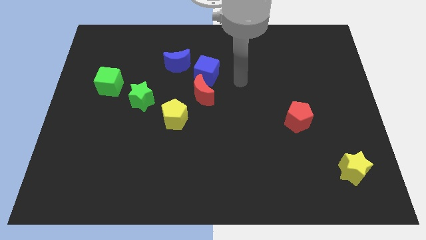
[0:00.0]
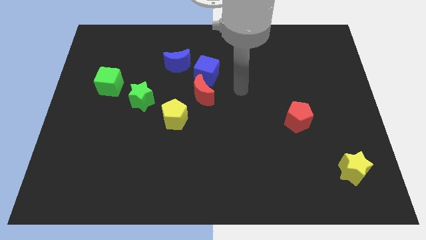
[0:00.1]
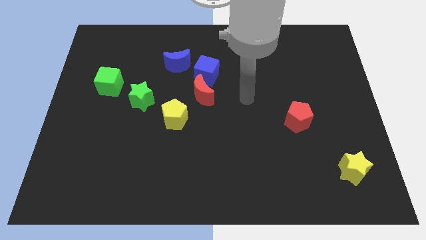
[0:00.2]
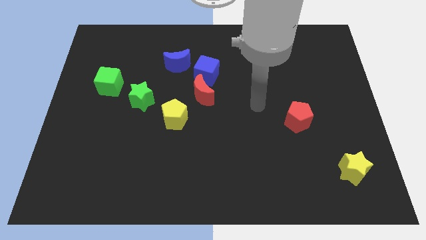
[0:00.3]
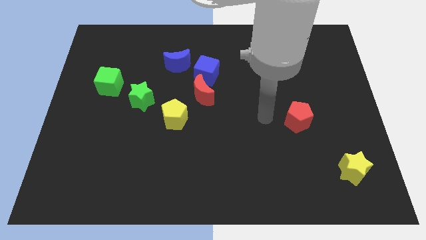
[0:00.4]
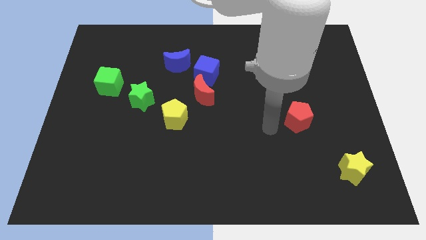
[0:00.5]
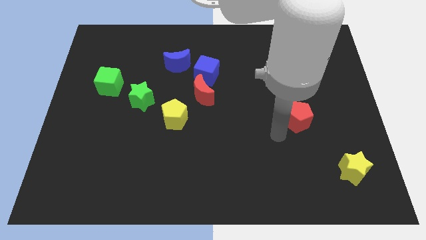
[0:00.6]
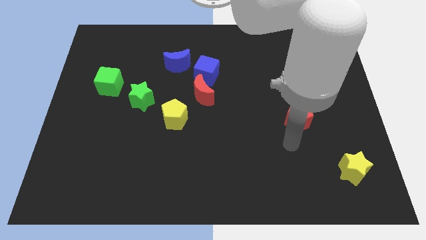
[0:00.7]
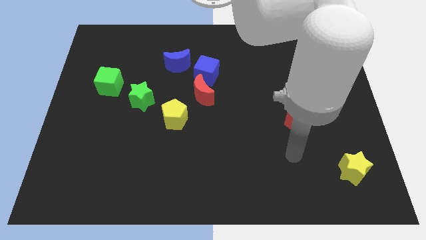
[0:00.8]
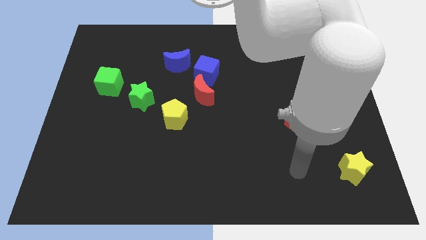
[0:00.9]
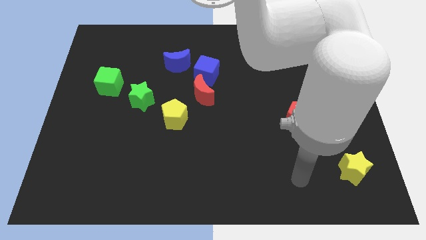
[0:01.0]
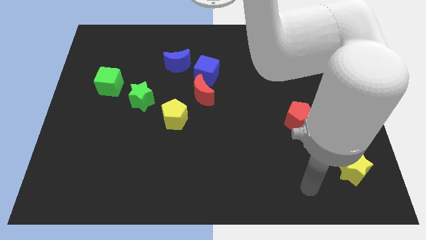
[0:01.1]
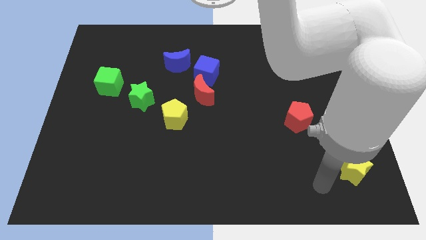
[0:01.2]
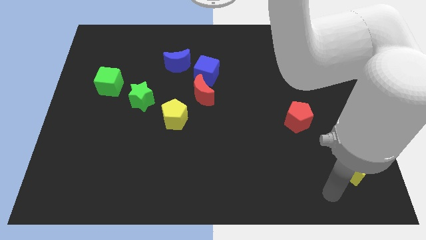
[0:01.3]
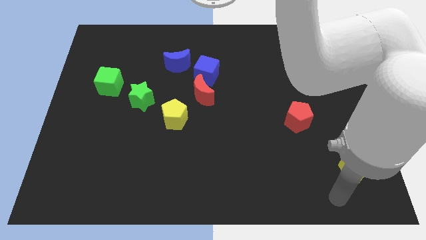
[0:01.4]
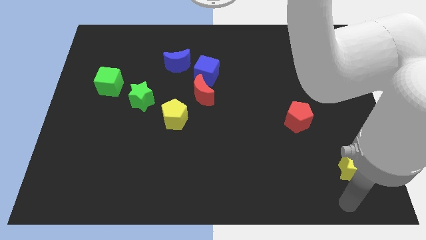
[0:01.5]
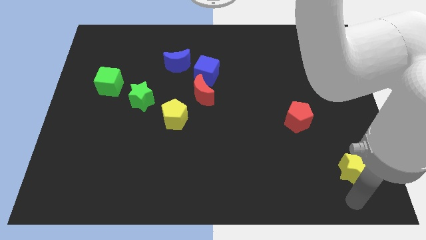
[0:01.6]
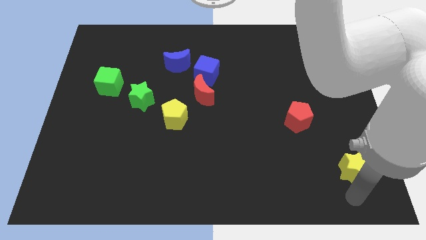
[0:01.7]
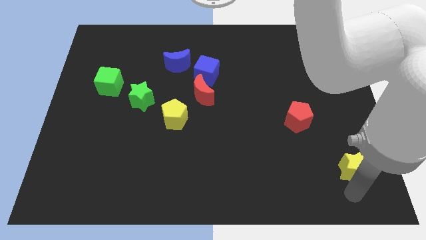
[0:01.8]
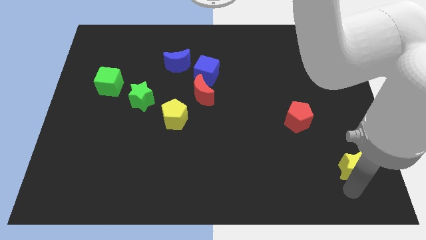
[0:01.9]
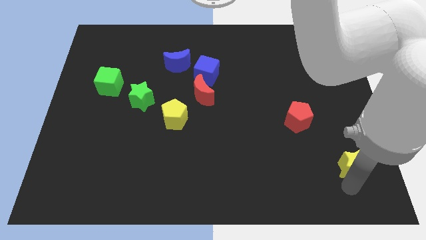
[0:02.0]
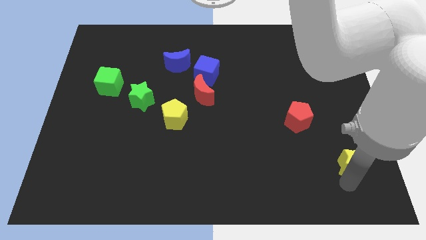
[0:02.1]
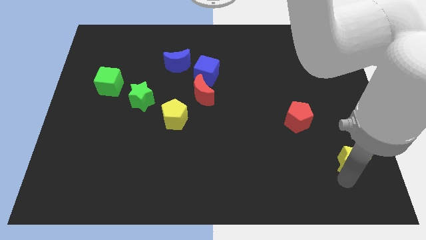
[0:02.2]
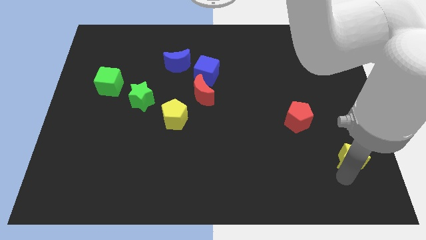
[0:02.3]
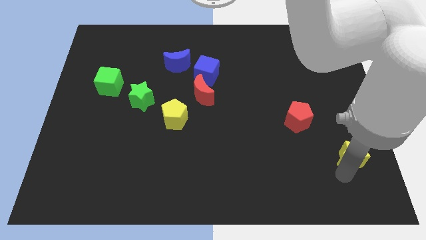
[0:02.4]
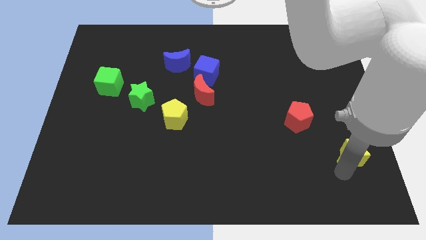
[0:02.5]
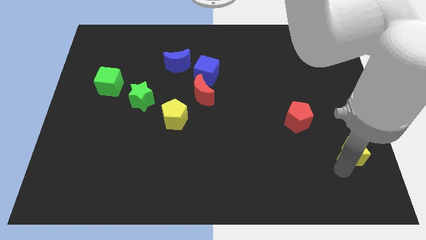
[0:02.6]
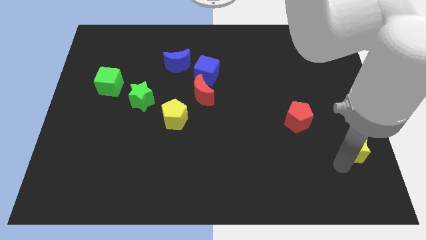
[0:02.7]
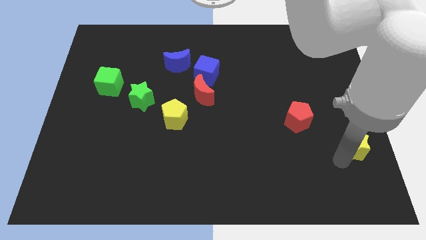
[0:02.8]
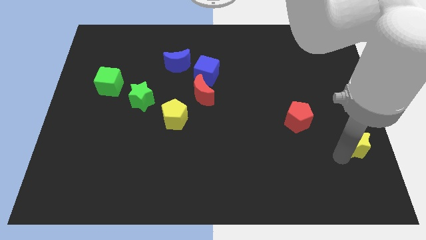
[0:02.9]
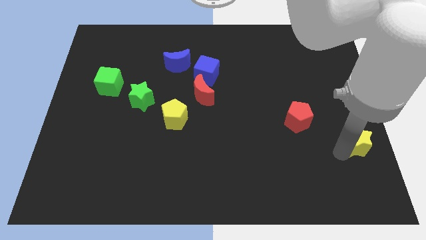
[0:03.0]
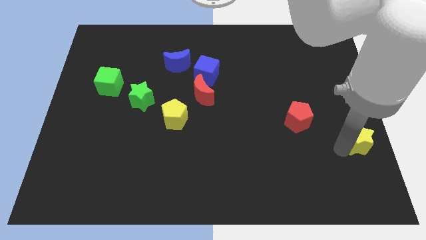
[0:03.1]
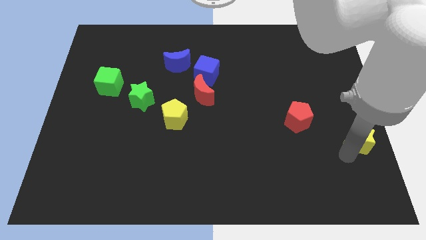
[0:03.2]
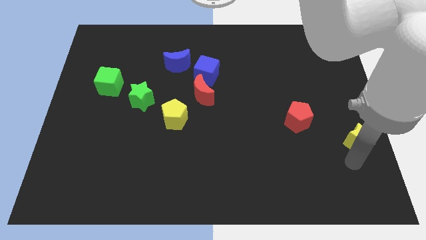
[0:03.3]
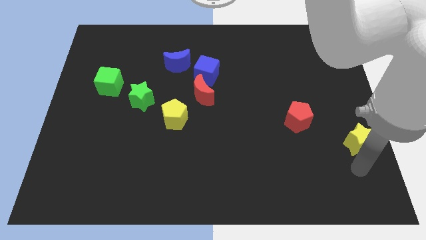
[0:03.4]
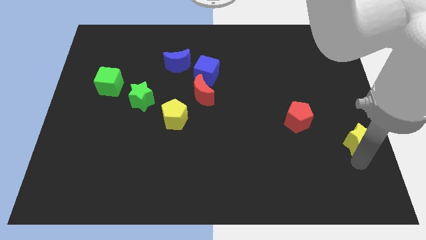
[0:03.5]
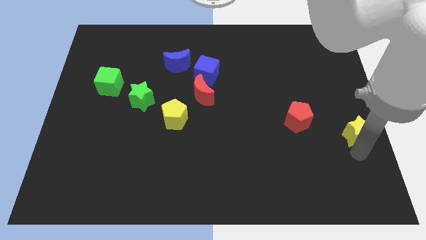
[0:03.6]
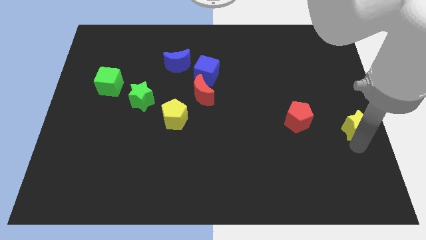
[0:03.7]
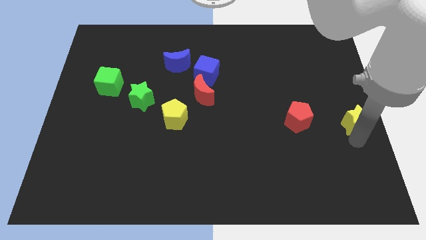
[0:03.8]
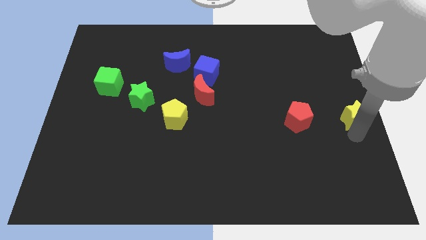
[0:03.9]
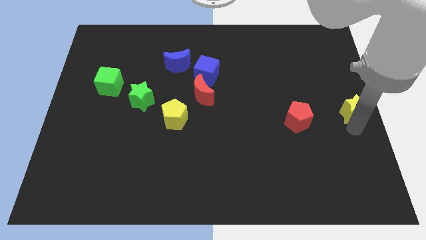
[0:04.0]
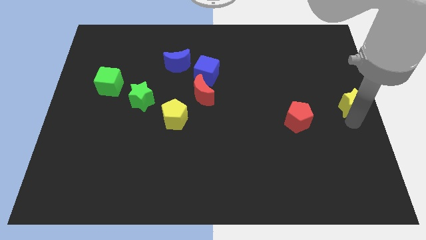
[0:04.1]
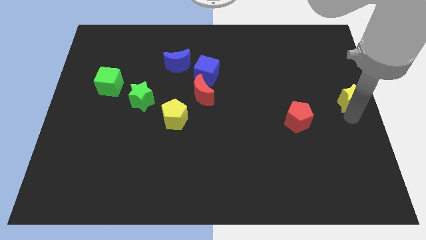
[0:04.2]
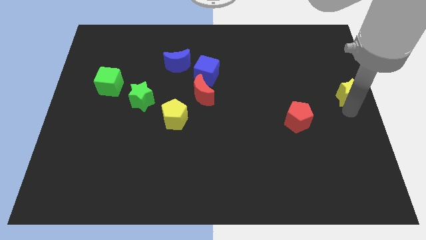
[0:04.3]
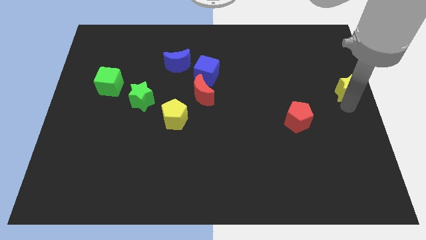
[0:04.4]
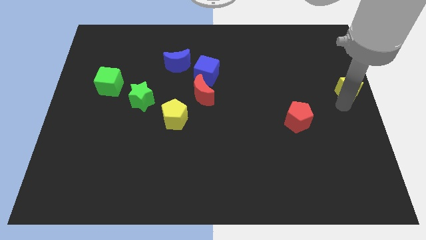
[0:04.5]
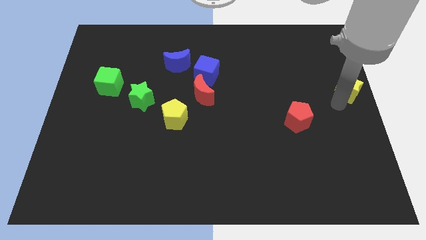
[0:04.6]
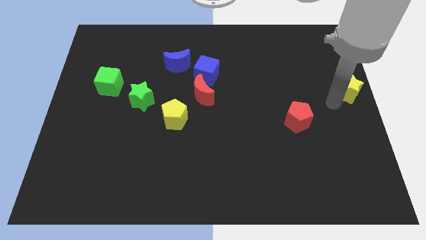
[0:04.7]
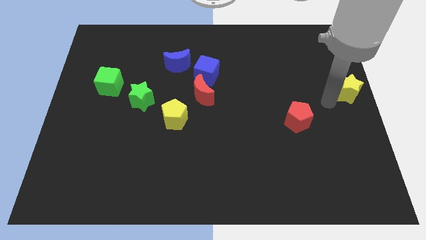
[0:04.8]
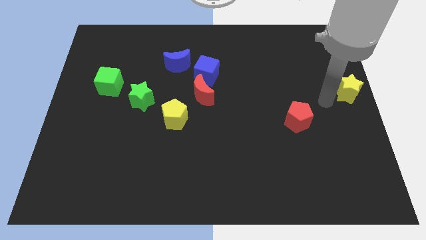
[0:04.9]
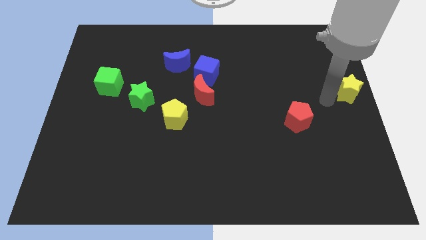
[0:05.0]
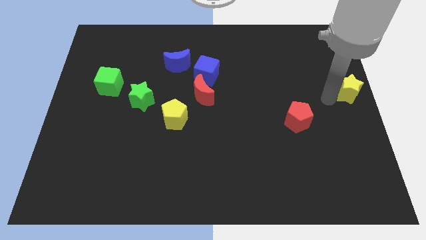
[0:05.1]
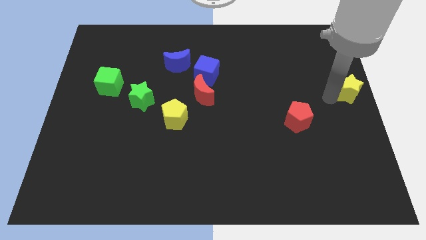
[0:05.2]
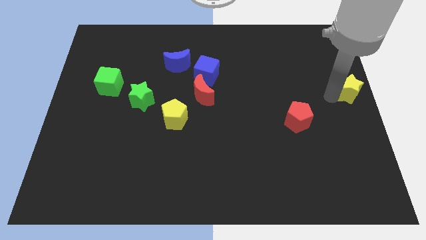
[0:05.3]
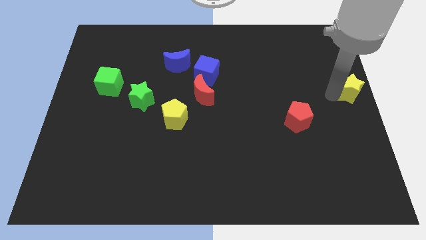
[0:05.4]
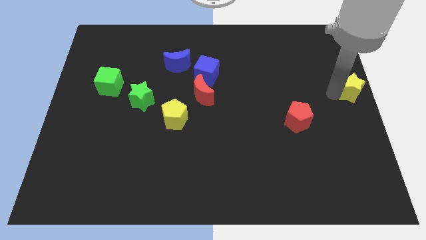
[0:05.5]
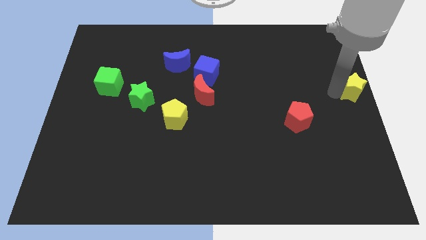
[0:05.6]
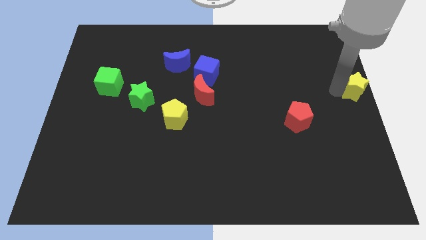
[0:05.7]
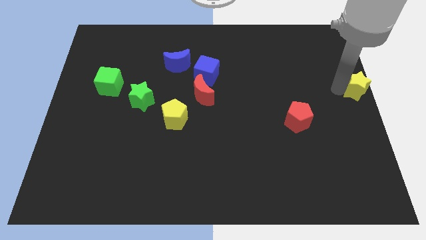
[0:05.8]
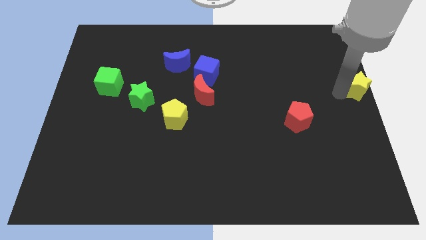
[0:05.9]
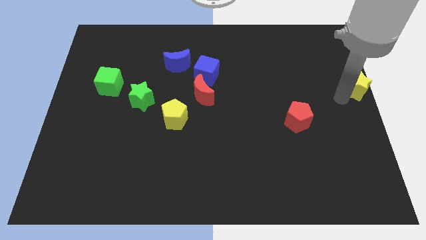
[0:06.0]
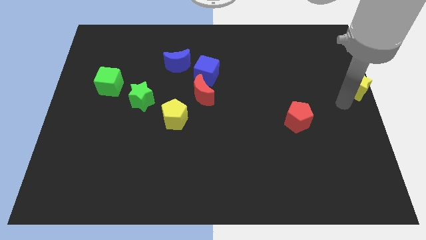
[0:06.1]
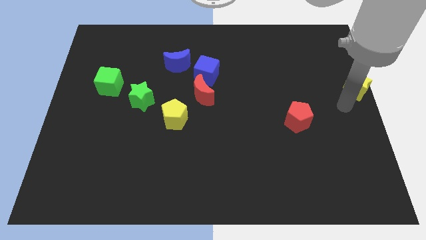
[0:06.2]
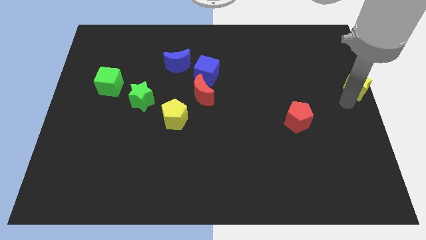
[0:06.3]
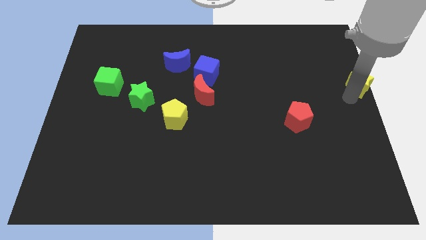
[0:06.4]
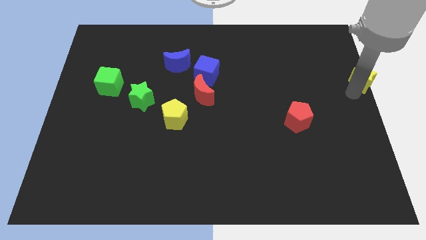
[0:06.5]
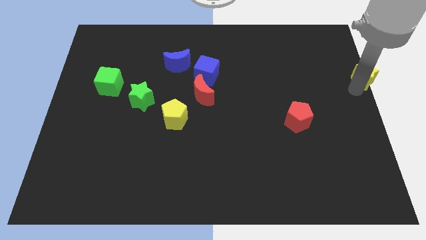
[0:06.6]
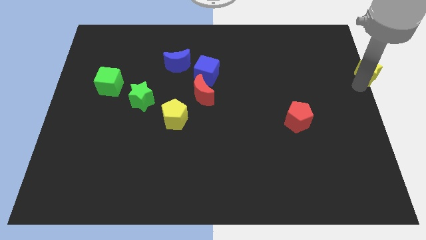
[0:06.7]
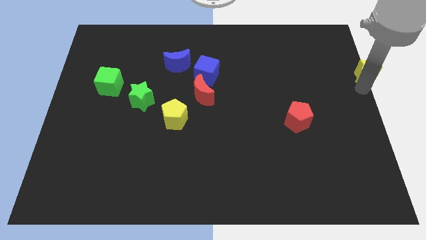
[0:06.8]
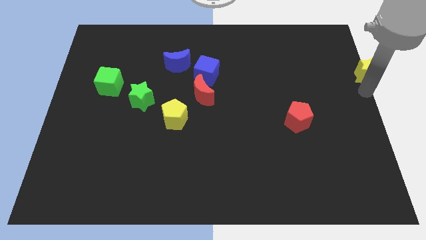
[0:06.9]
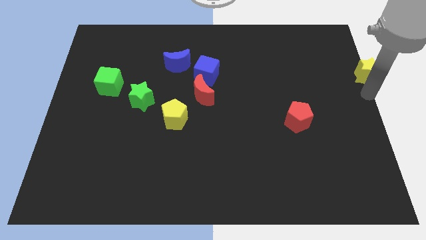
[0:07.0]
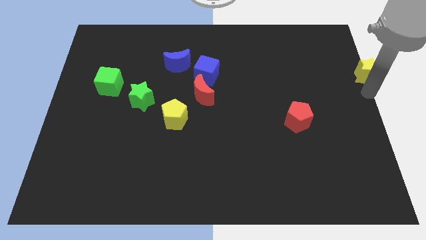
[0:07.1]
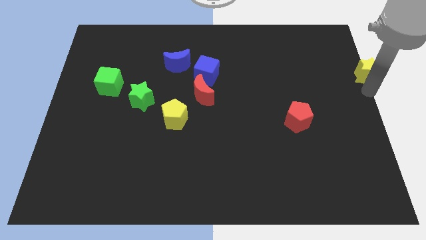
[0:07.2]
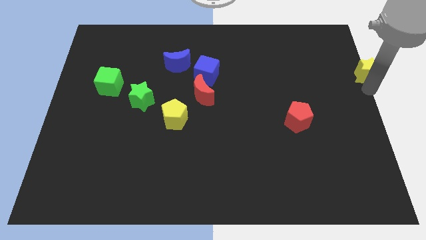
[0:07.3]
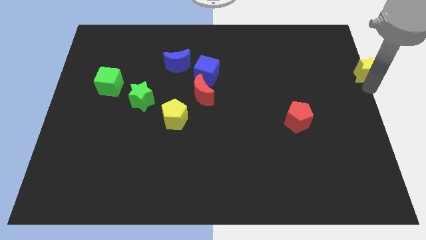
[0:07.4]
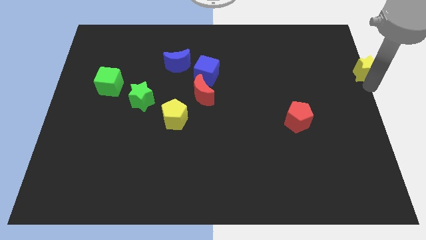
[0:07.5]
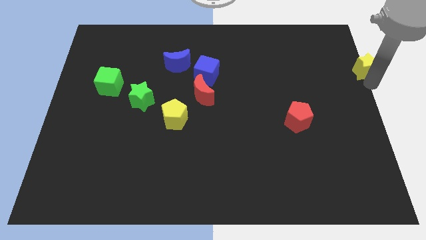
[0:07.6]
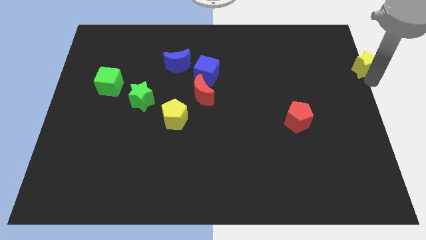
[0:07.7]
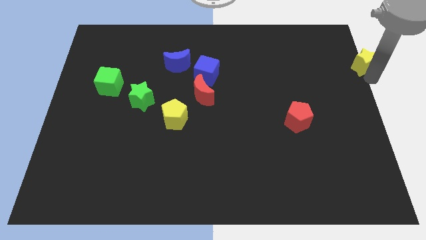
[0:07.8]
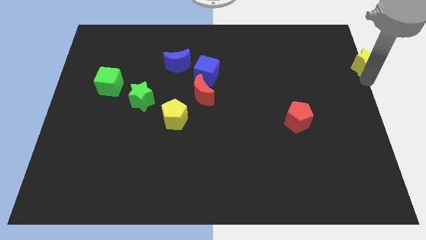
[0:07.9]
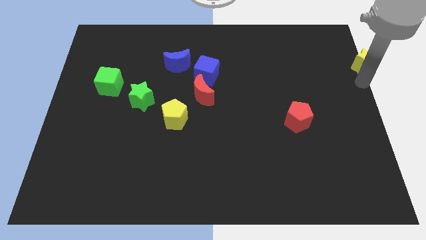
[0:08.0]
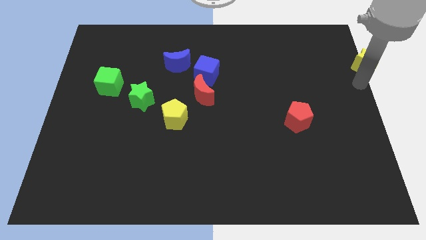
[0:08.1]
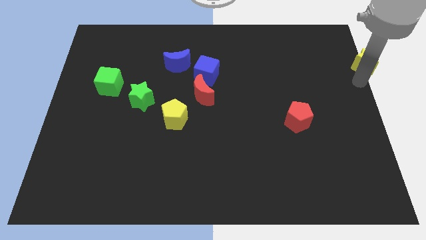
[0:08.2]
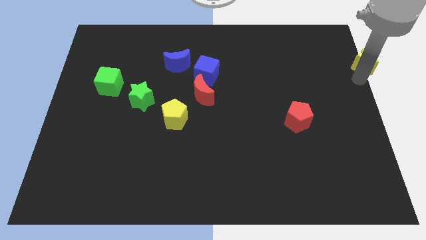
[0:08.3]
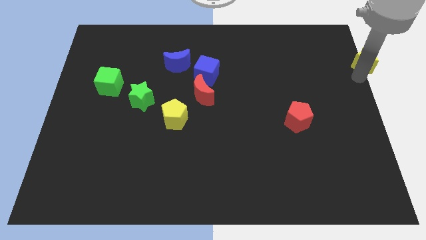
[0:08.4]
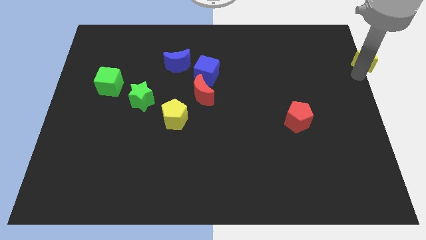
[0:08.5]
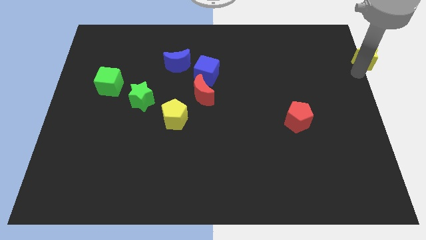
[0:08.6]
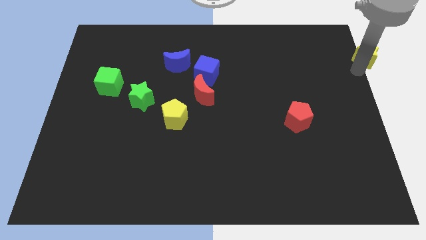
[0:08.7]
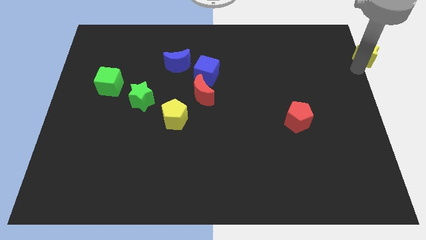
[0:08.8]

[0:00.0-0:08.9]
slide the yellow star to the top right of the board
